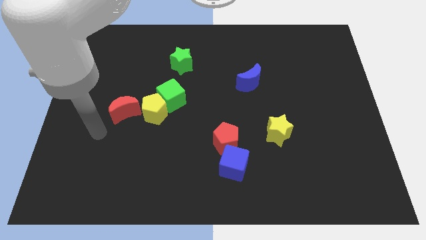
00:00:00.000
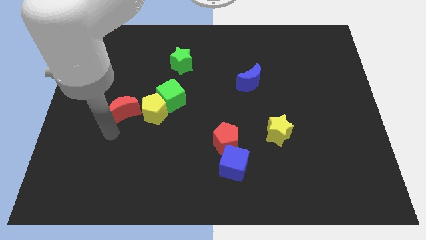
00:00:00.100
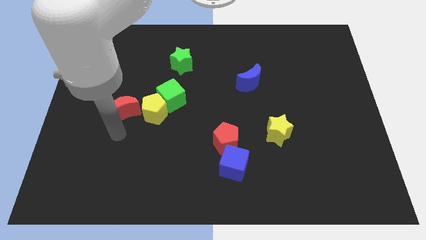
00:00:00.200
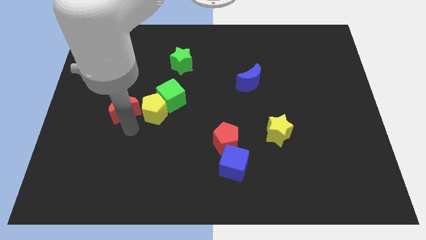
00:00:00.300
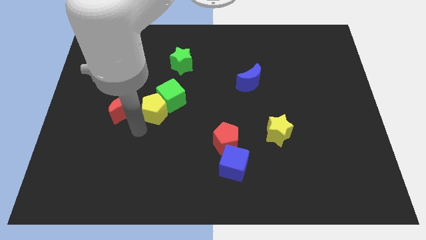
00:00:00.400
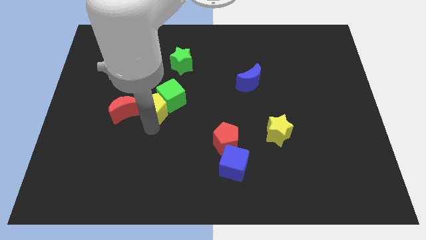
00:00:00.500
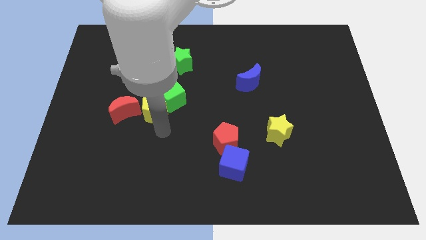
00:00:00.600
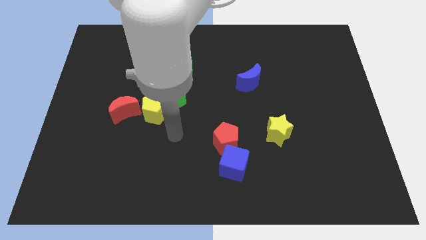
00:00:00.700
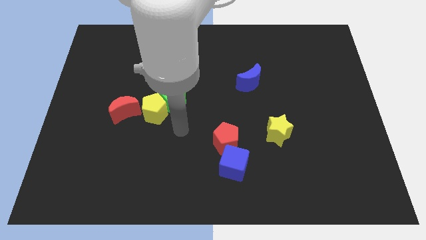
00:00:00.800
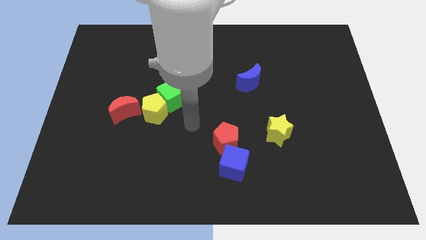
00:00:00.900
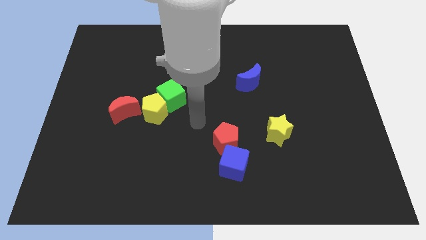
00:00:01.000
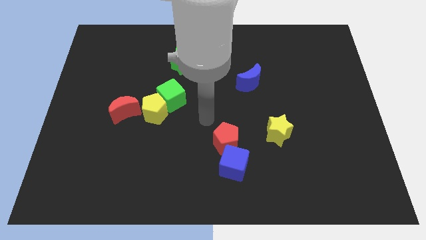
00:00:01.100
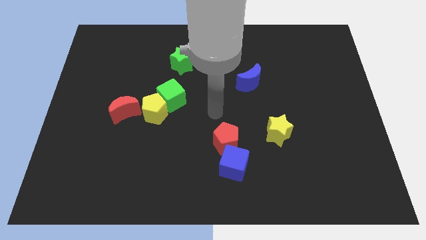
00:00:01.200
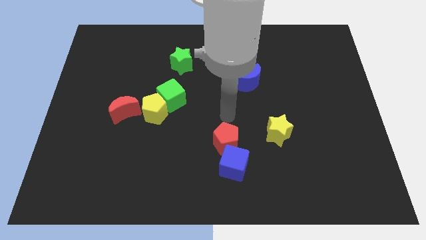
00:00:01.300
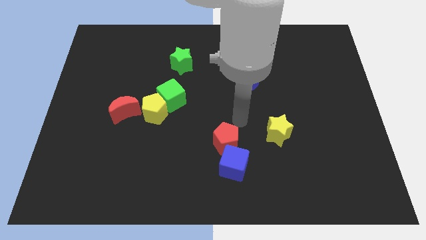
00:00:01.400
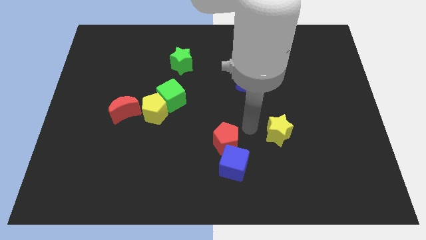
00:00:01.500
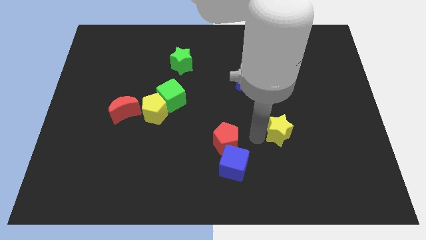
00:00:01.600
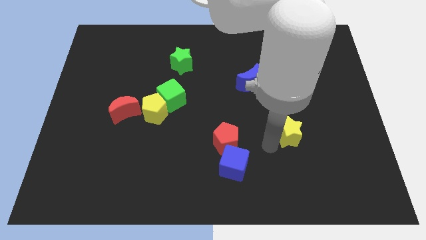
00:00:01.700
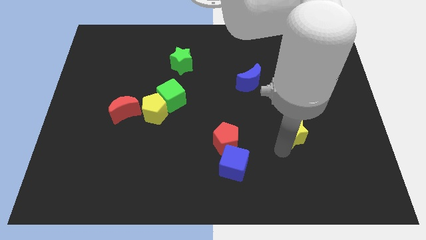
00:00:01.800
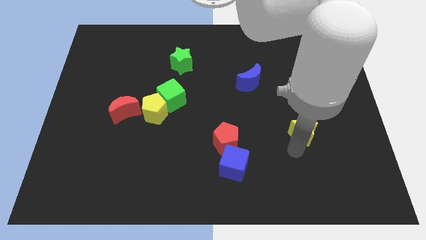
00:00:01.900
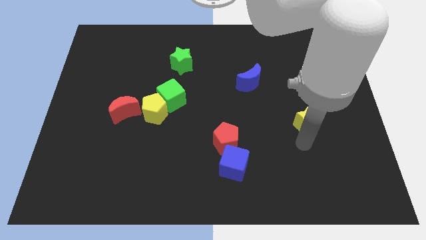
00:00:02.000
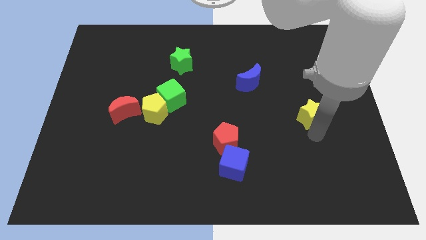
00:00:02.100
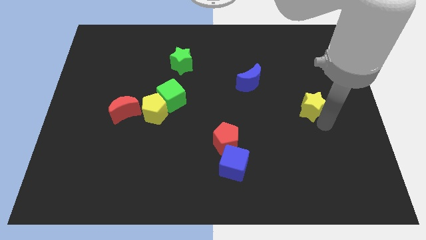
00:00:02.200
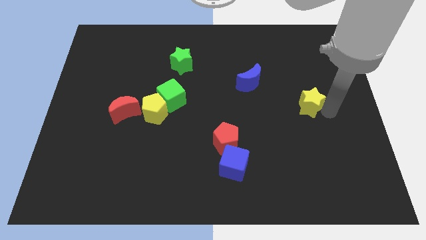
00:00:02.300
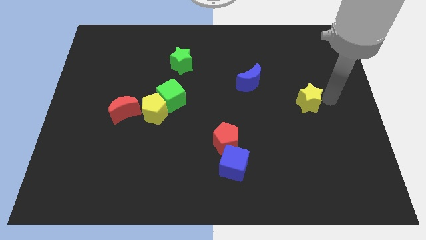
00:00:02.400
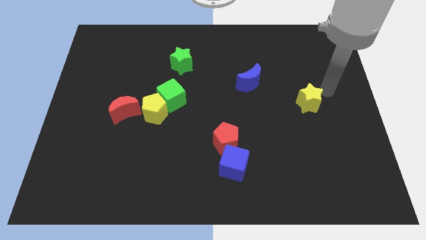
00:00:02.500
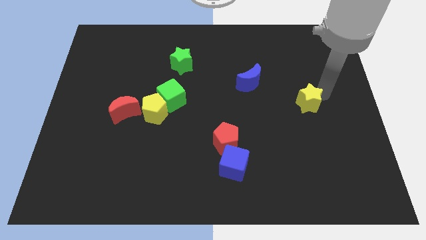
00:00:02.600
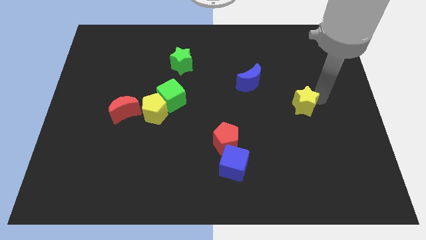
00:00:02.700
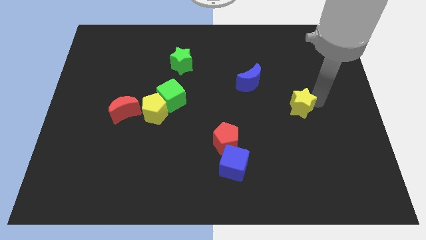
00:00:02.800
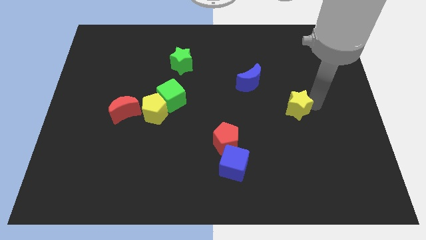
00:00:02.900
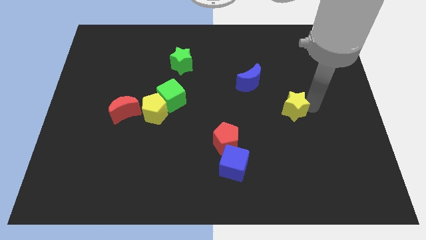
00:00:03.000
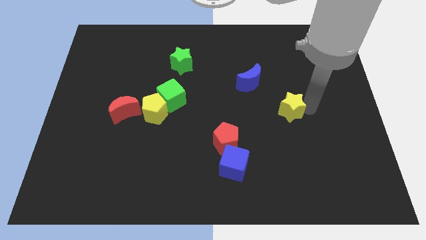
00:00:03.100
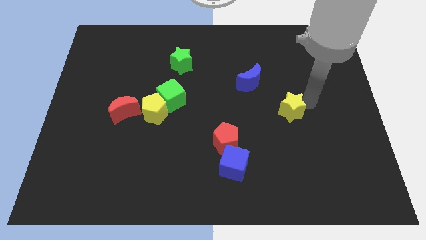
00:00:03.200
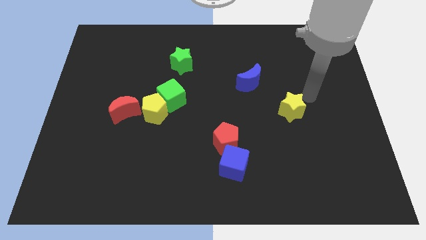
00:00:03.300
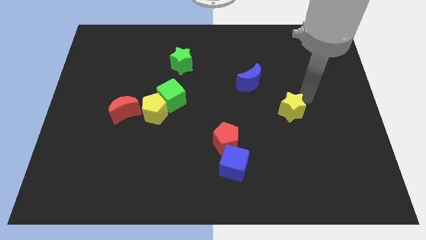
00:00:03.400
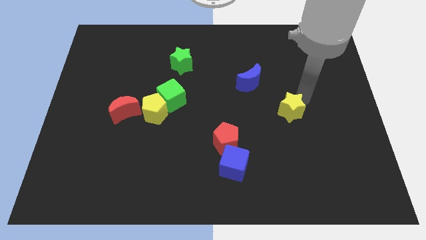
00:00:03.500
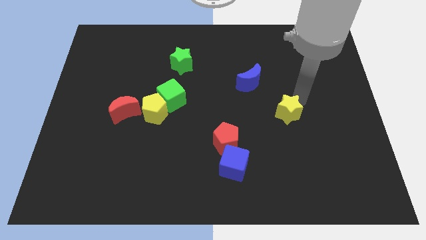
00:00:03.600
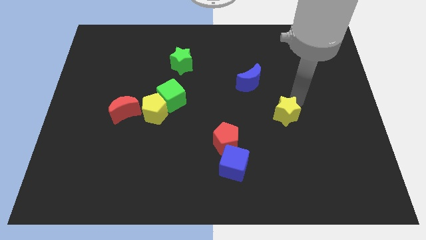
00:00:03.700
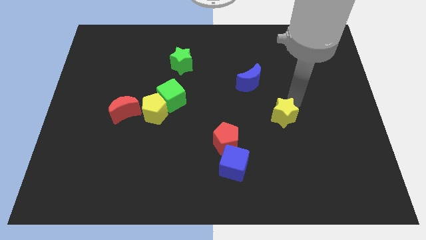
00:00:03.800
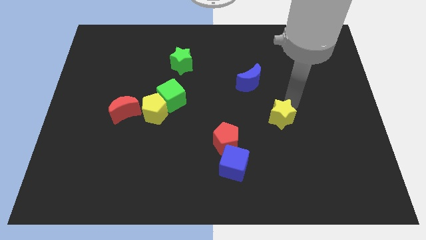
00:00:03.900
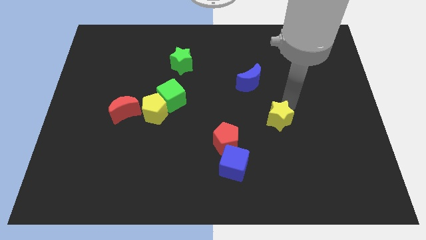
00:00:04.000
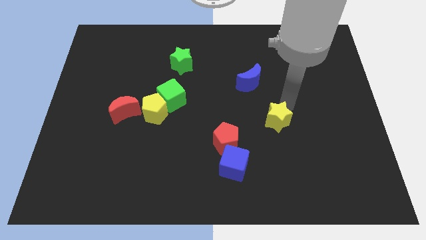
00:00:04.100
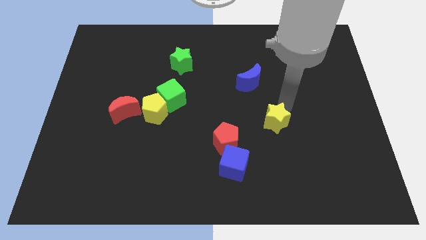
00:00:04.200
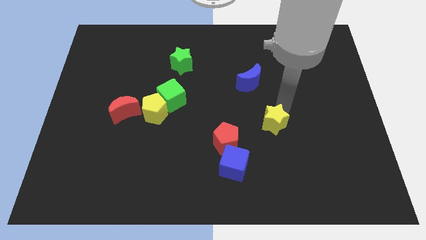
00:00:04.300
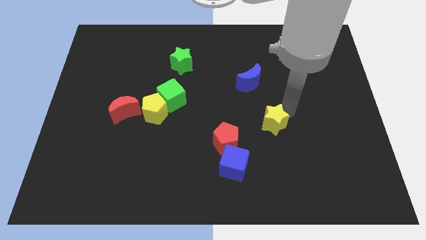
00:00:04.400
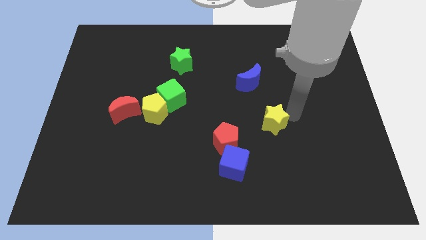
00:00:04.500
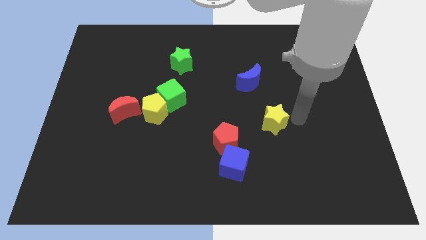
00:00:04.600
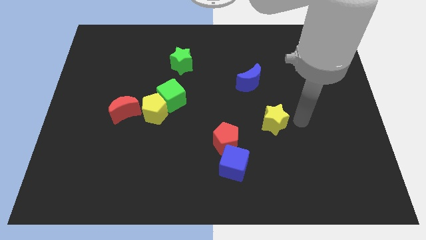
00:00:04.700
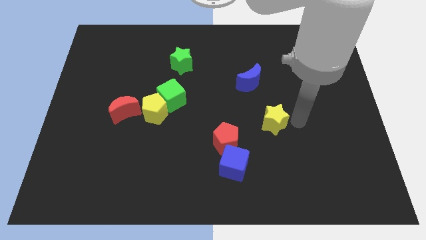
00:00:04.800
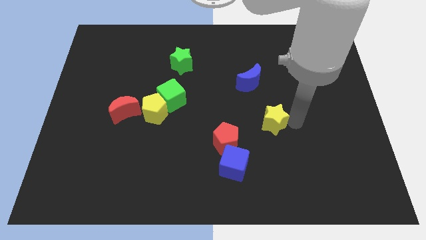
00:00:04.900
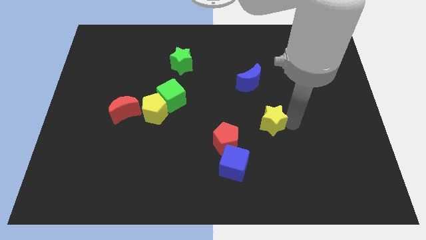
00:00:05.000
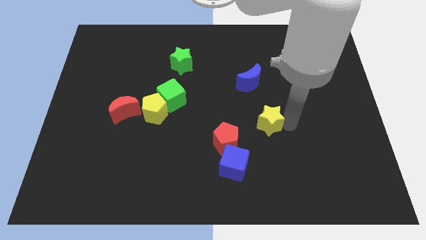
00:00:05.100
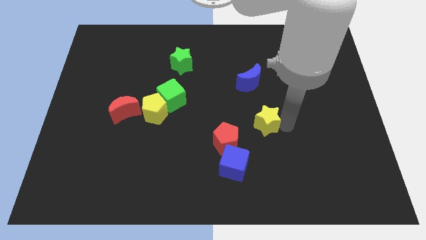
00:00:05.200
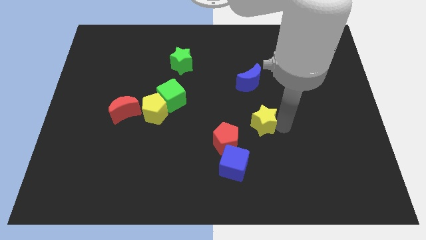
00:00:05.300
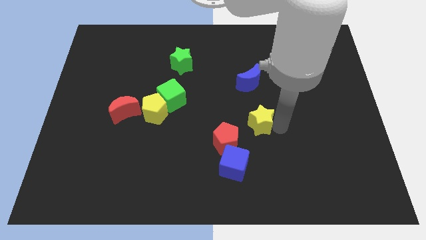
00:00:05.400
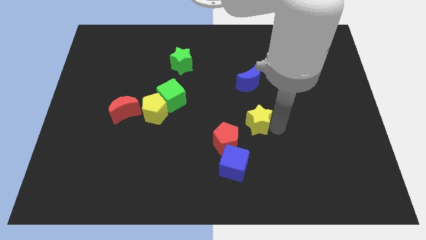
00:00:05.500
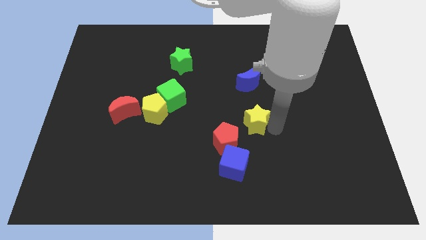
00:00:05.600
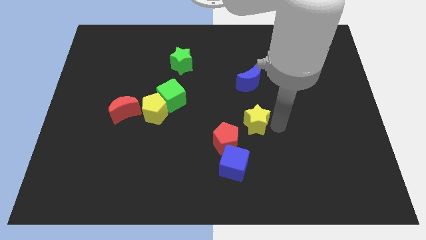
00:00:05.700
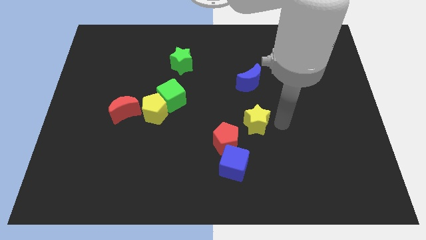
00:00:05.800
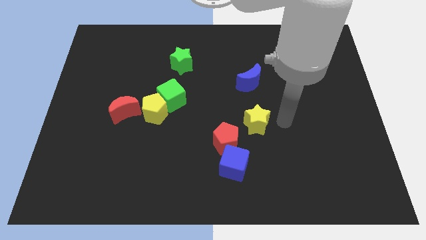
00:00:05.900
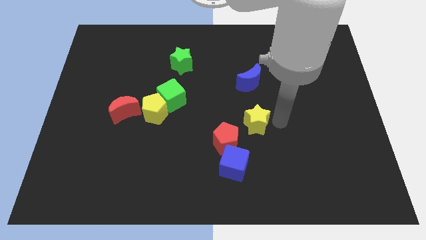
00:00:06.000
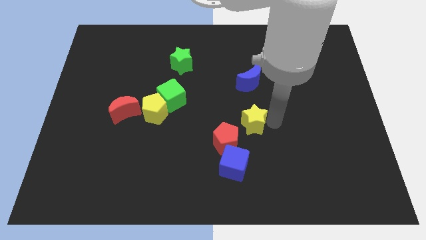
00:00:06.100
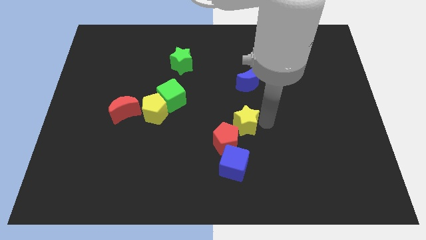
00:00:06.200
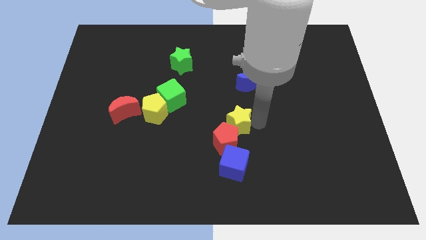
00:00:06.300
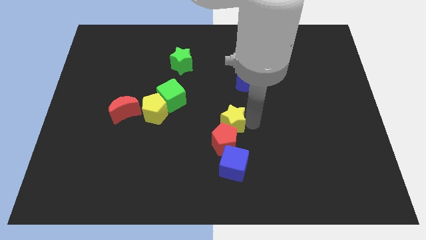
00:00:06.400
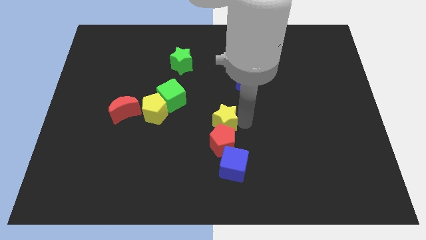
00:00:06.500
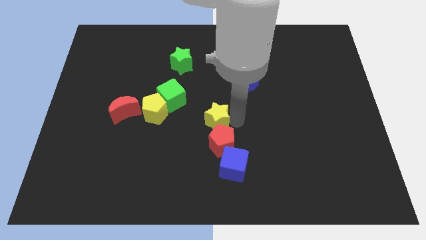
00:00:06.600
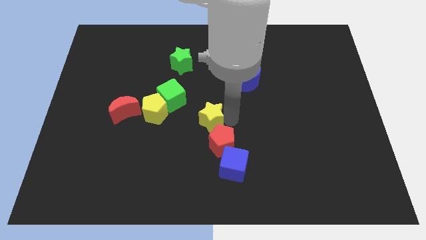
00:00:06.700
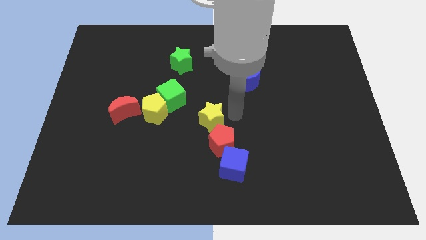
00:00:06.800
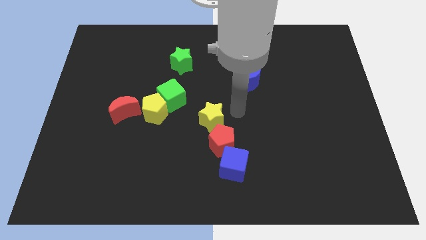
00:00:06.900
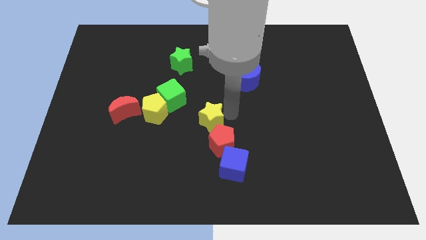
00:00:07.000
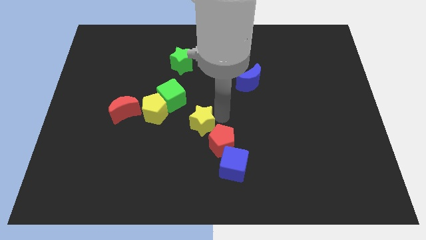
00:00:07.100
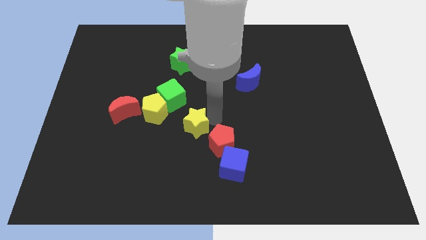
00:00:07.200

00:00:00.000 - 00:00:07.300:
push the yellow star to the bottom right side of the yellow pentagon
